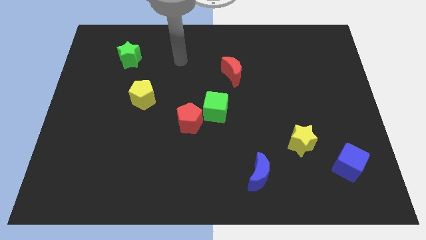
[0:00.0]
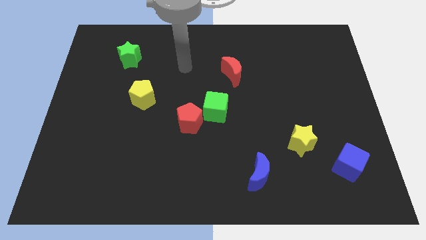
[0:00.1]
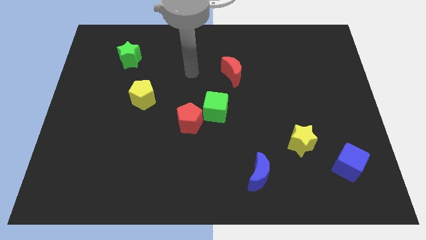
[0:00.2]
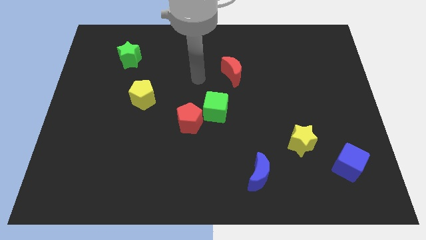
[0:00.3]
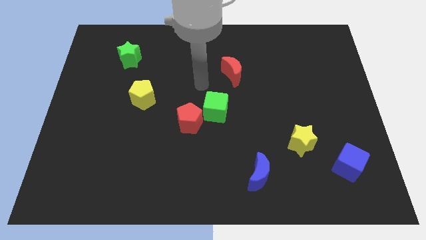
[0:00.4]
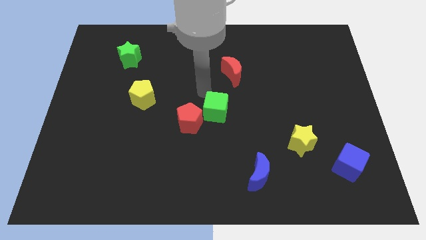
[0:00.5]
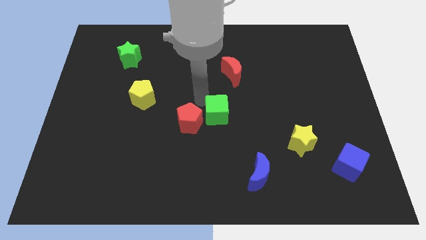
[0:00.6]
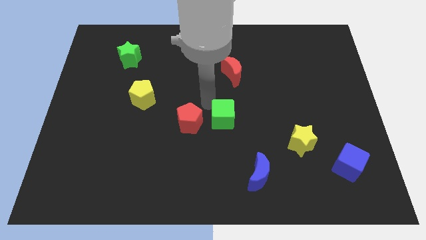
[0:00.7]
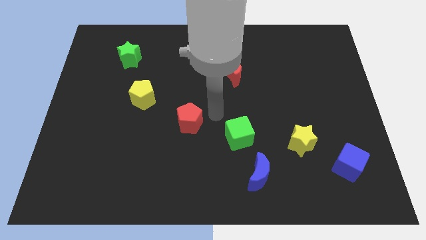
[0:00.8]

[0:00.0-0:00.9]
pull the red pentagon apart from the green cube

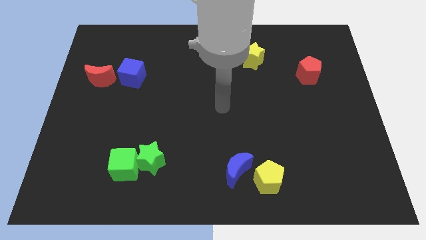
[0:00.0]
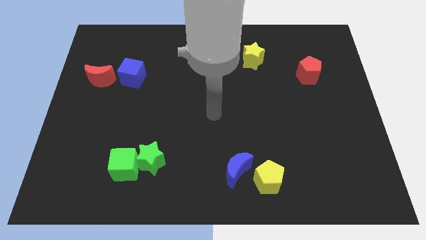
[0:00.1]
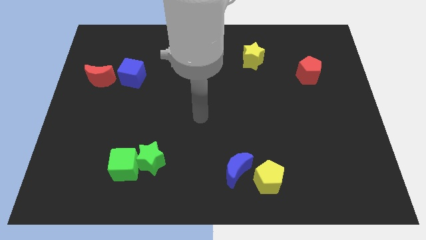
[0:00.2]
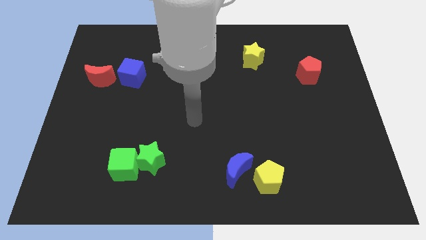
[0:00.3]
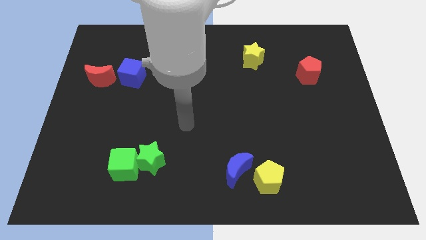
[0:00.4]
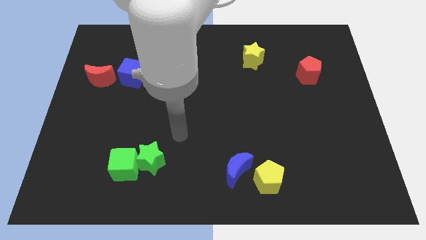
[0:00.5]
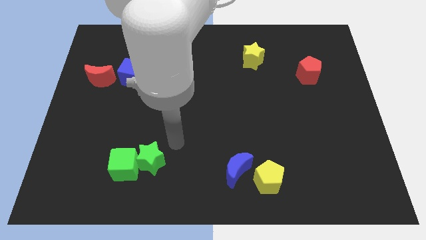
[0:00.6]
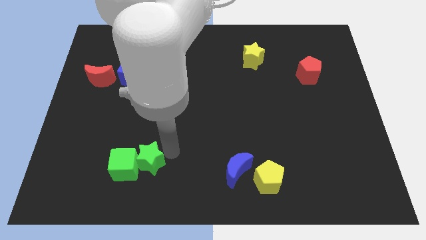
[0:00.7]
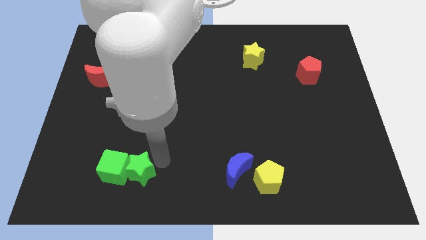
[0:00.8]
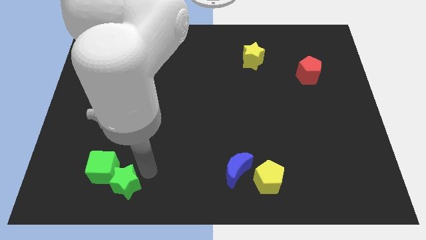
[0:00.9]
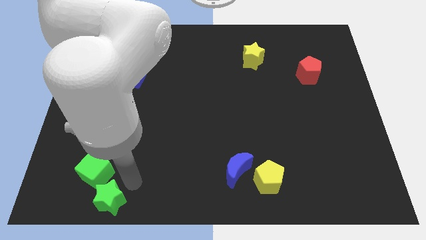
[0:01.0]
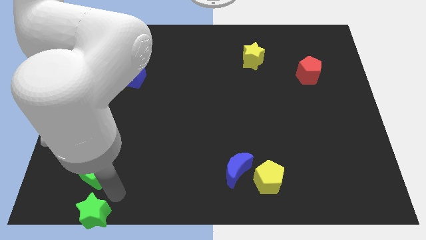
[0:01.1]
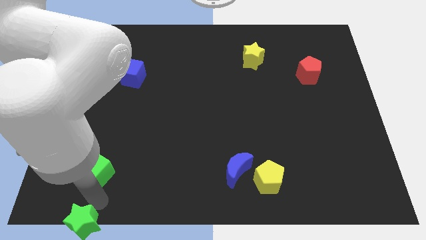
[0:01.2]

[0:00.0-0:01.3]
move the green cube away from the green star

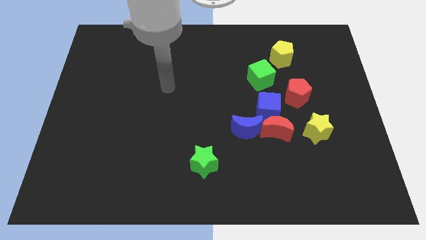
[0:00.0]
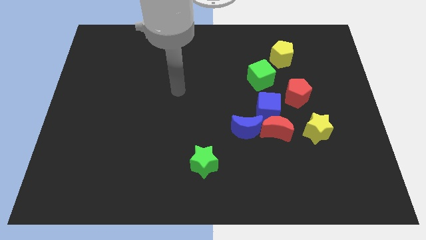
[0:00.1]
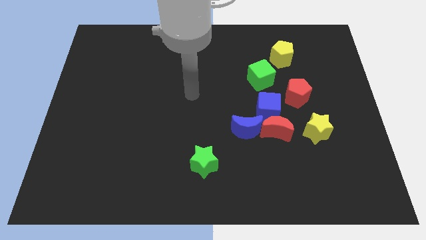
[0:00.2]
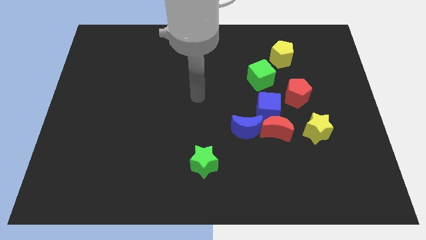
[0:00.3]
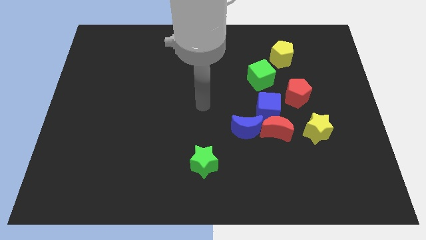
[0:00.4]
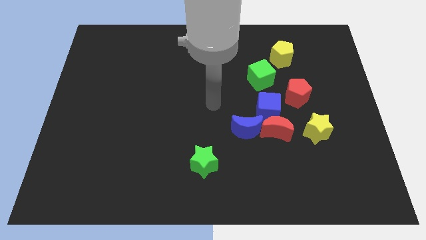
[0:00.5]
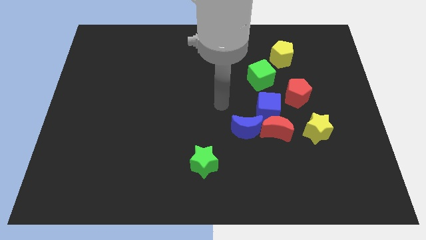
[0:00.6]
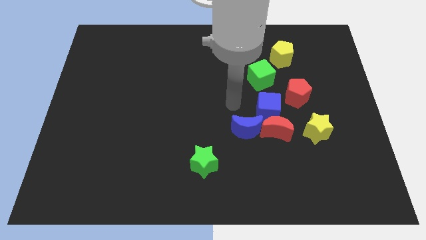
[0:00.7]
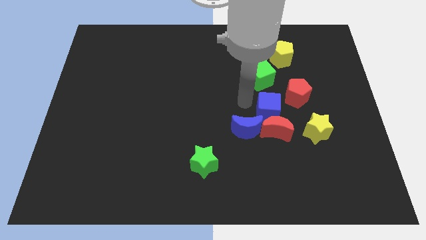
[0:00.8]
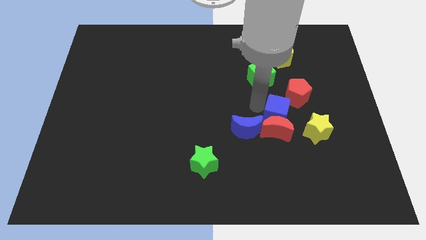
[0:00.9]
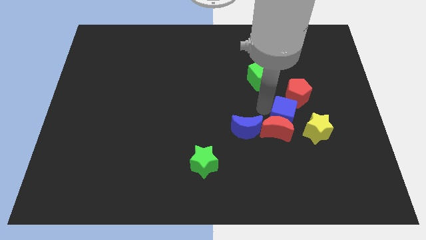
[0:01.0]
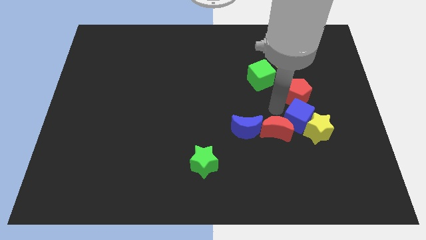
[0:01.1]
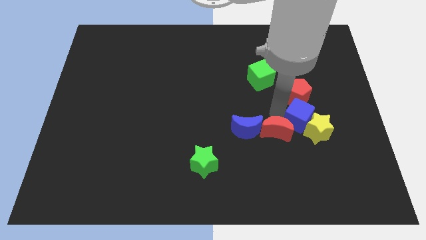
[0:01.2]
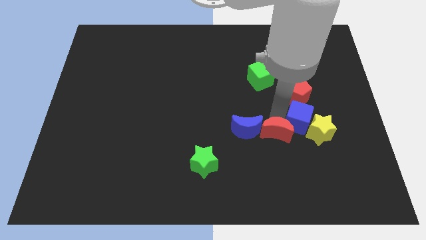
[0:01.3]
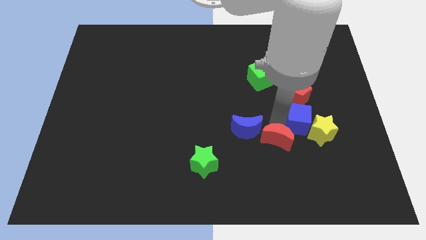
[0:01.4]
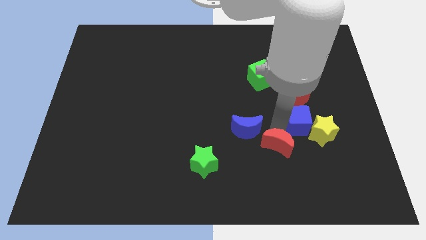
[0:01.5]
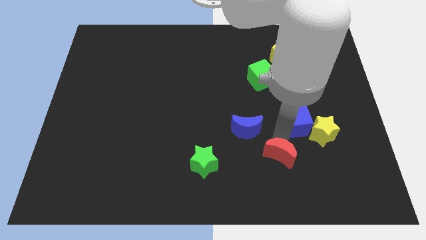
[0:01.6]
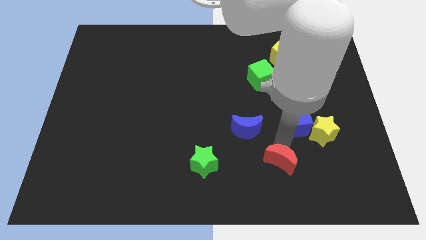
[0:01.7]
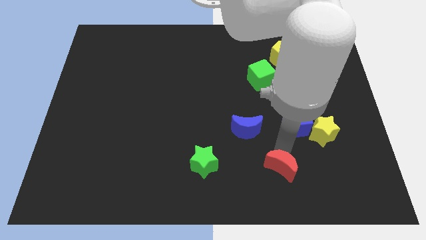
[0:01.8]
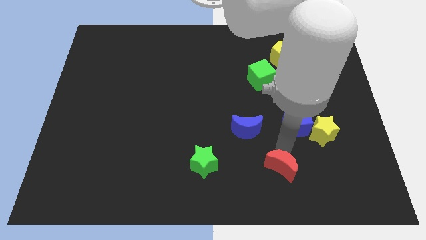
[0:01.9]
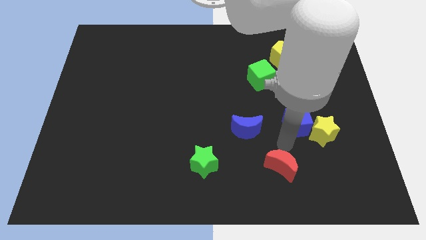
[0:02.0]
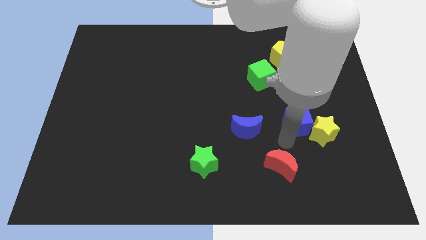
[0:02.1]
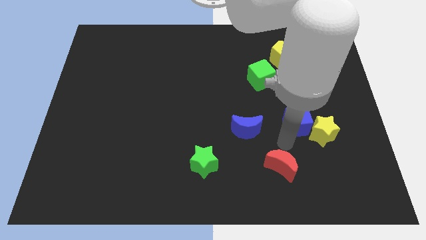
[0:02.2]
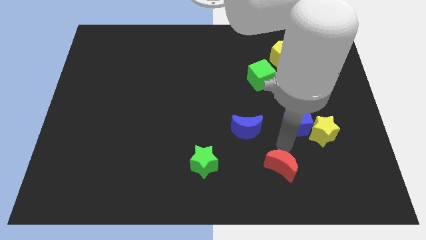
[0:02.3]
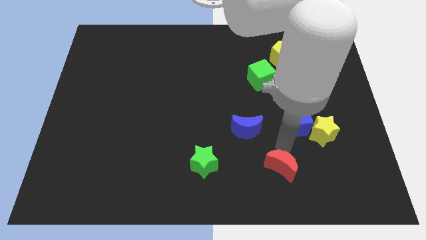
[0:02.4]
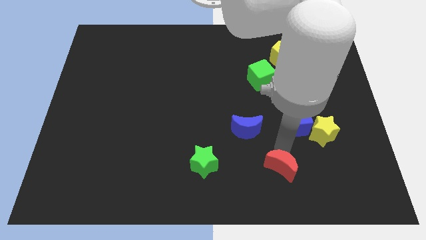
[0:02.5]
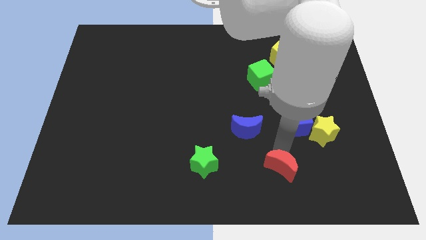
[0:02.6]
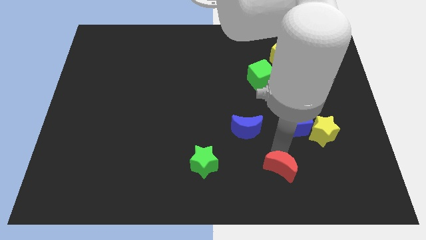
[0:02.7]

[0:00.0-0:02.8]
separate the red moon from the group of blocks

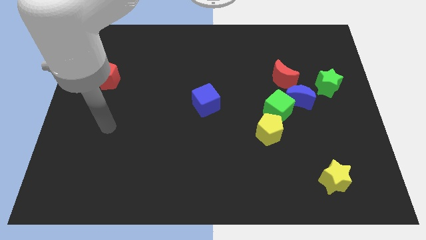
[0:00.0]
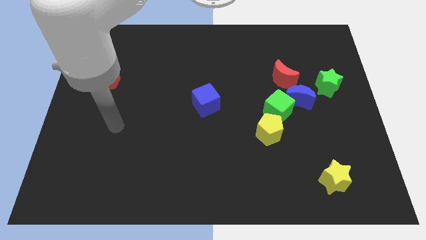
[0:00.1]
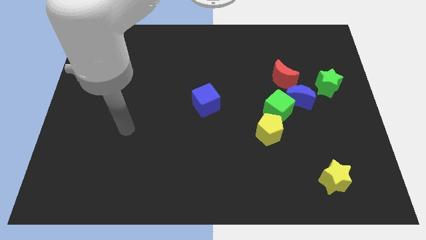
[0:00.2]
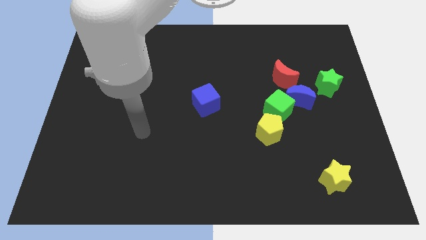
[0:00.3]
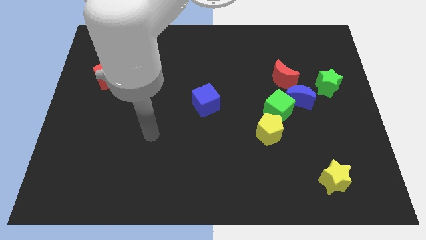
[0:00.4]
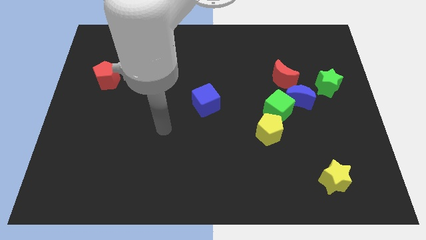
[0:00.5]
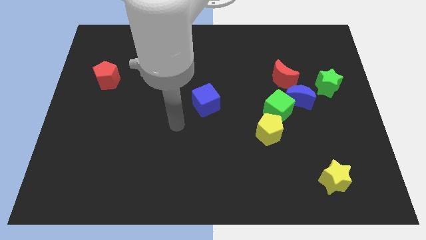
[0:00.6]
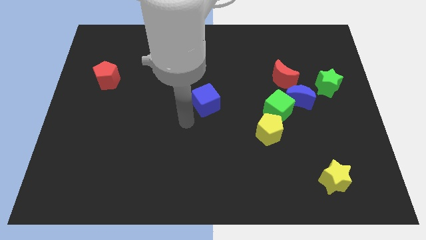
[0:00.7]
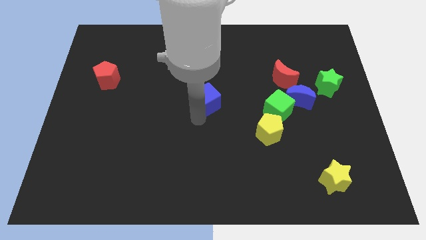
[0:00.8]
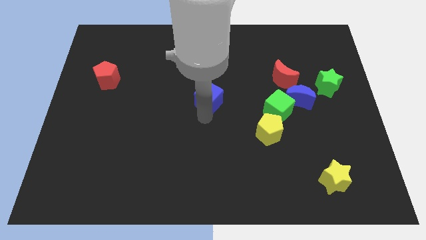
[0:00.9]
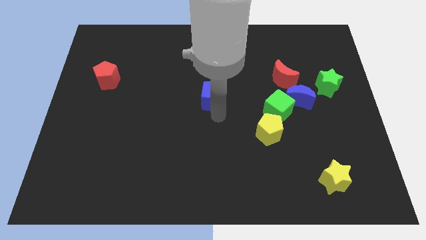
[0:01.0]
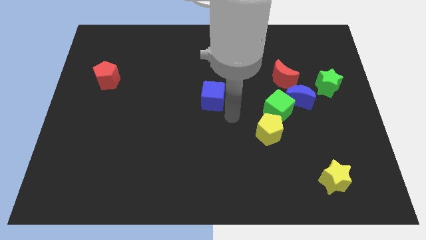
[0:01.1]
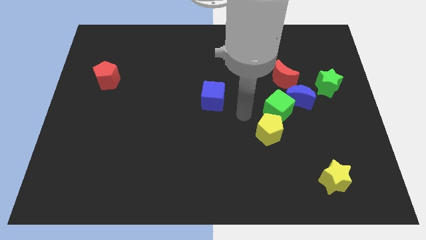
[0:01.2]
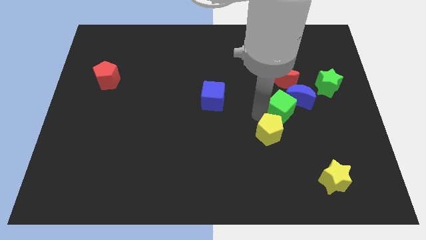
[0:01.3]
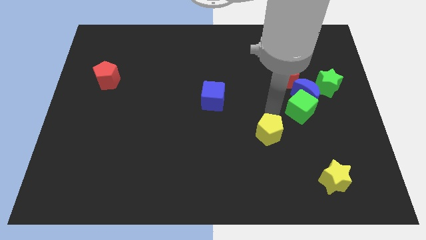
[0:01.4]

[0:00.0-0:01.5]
separate the yellow pentagon from the green cube

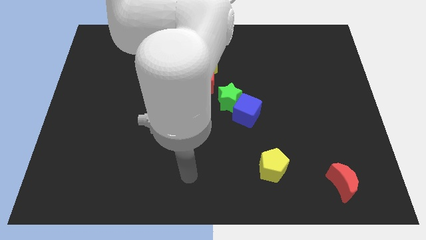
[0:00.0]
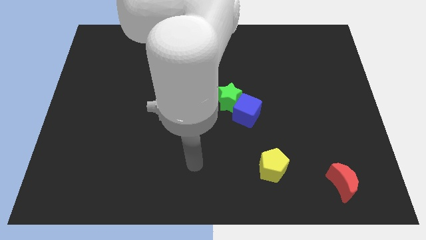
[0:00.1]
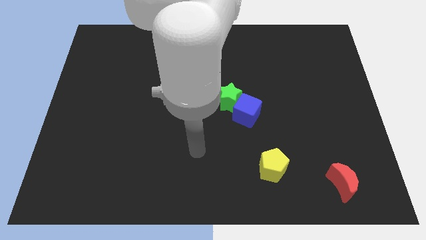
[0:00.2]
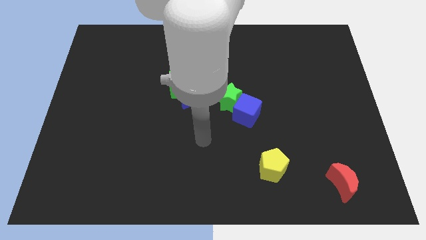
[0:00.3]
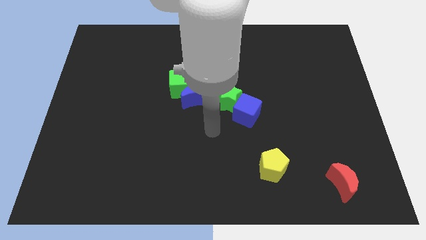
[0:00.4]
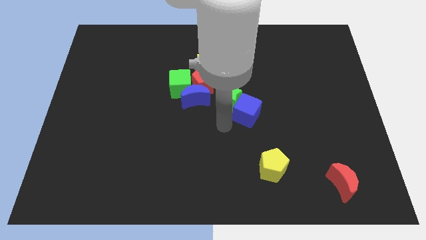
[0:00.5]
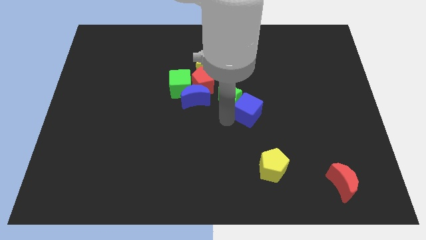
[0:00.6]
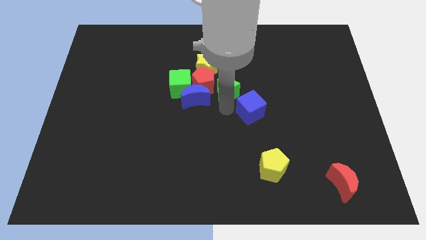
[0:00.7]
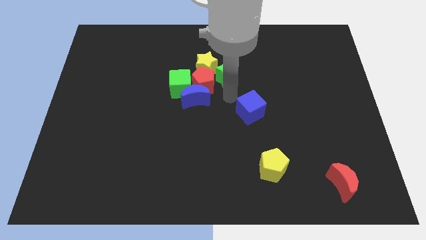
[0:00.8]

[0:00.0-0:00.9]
move the blue cube away from the green star

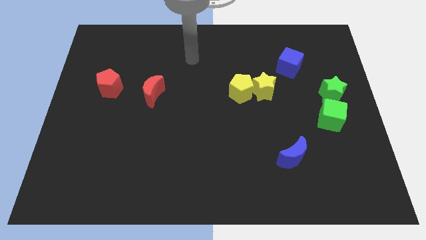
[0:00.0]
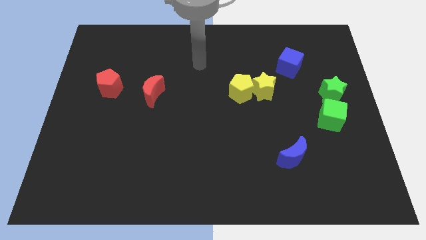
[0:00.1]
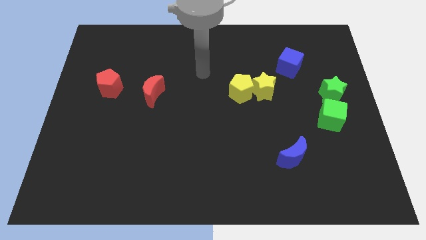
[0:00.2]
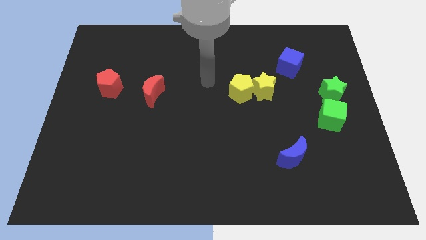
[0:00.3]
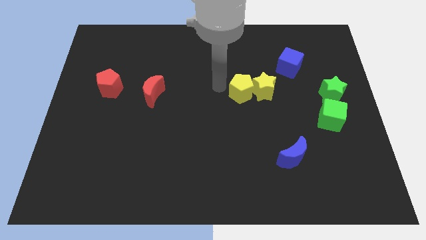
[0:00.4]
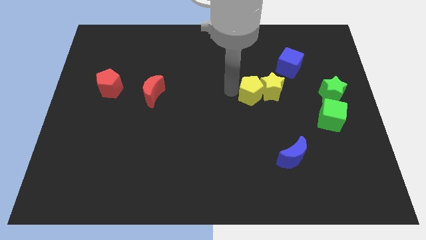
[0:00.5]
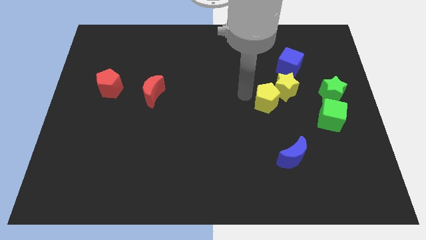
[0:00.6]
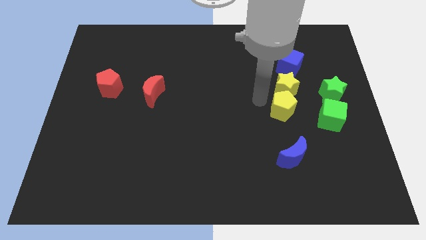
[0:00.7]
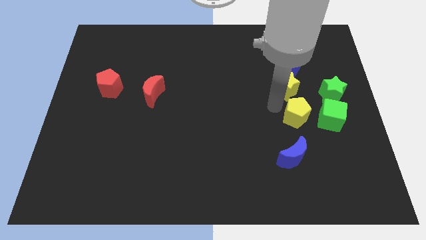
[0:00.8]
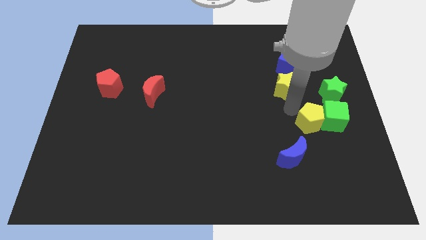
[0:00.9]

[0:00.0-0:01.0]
move the yellow star away from the yellow pentagon

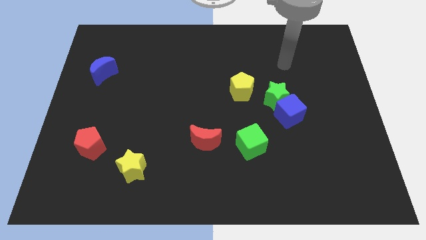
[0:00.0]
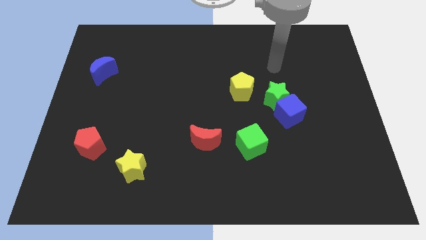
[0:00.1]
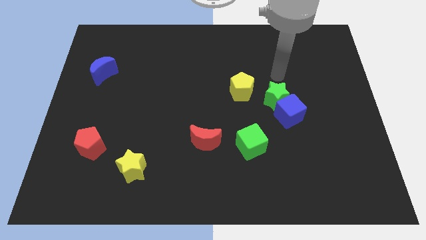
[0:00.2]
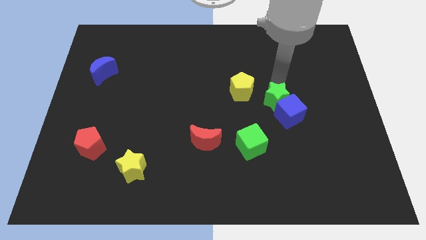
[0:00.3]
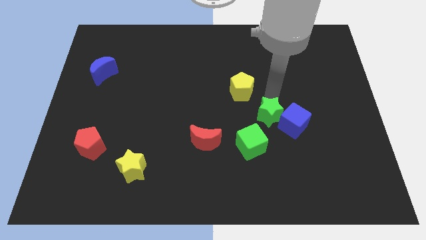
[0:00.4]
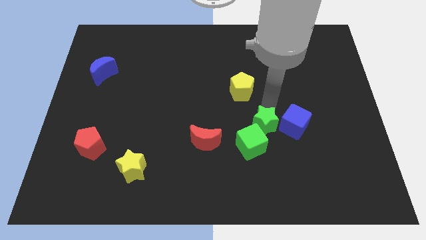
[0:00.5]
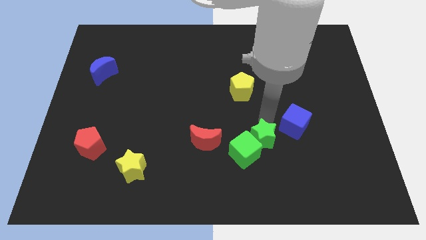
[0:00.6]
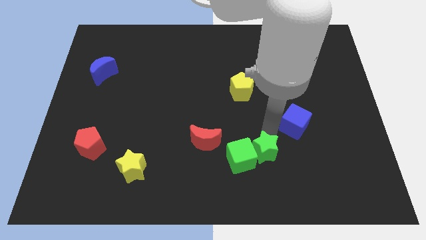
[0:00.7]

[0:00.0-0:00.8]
separate the blue cube from the green star

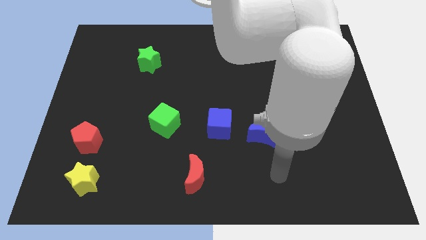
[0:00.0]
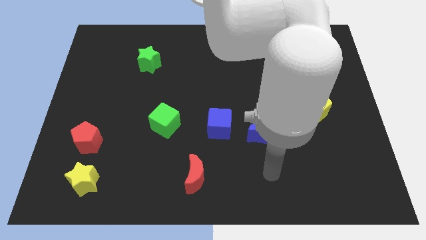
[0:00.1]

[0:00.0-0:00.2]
move the blue moon away from the blue cube
